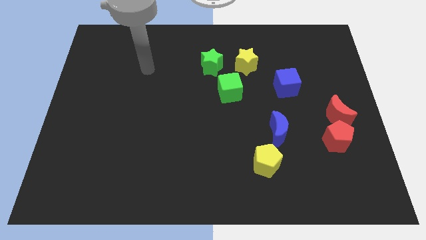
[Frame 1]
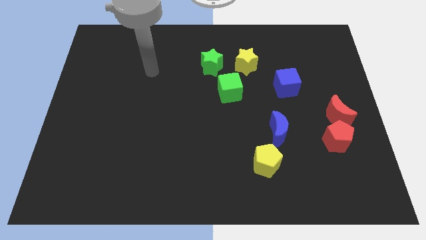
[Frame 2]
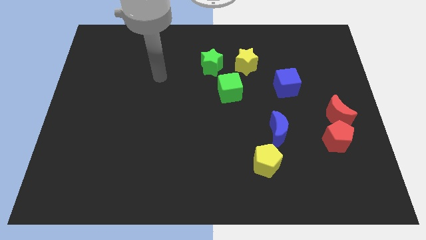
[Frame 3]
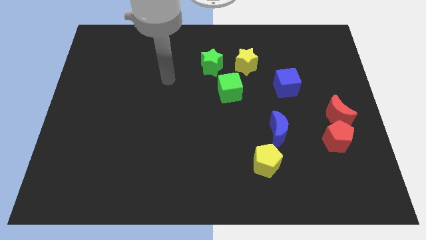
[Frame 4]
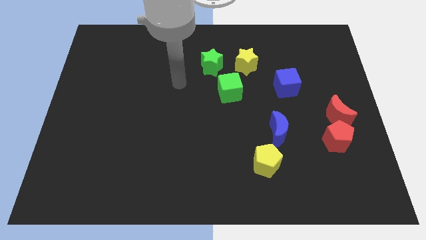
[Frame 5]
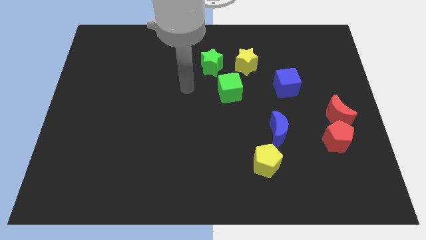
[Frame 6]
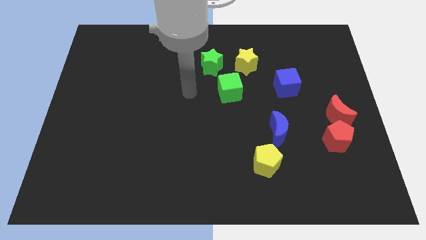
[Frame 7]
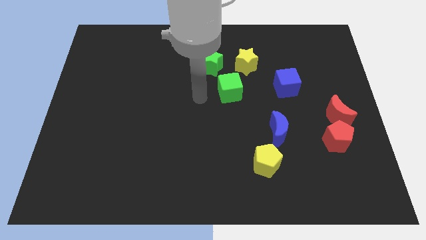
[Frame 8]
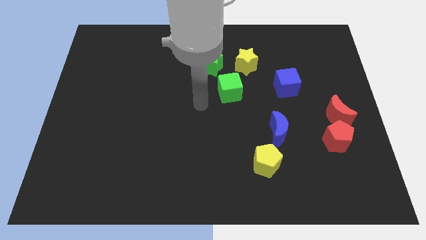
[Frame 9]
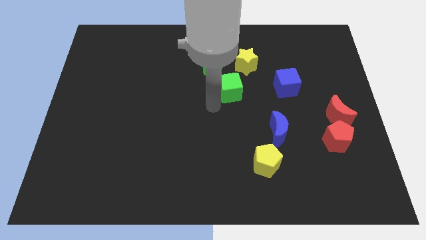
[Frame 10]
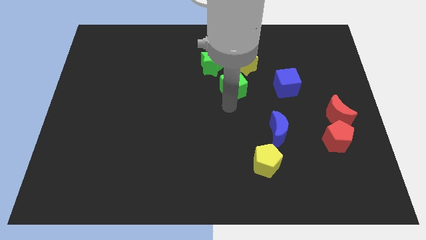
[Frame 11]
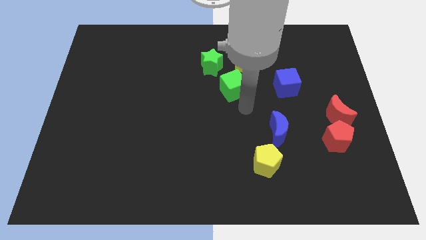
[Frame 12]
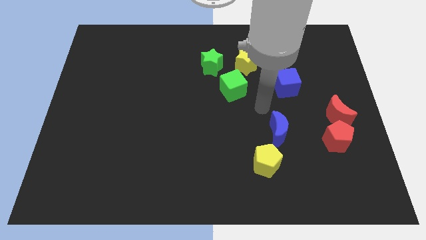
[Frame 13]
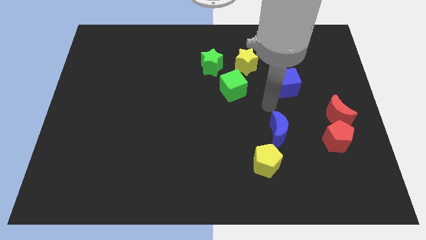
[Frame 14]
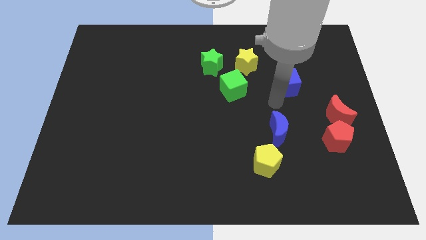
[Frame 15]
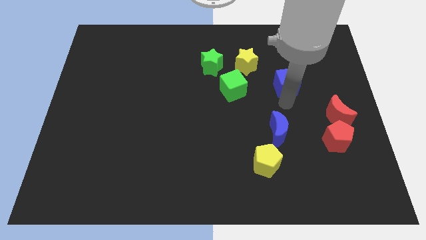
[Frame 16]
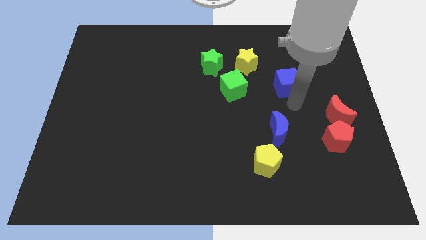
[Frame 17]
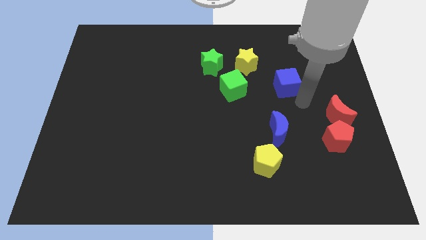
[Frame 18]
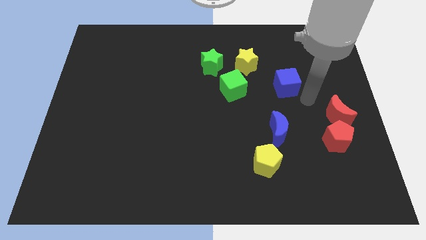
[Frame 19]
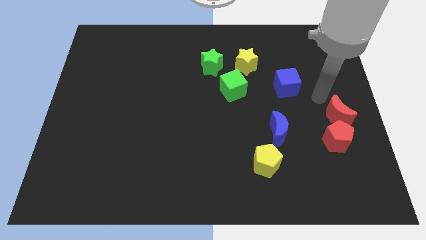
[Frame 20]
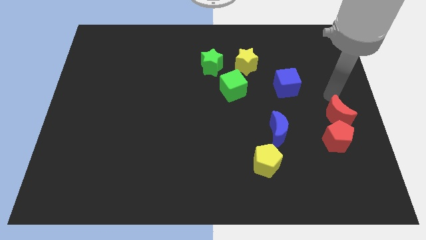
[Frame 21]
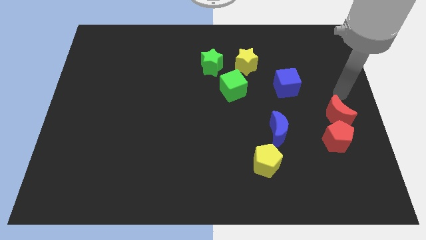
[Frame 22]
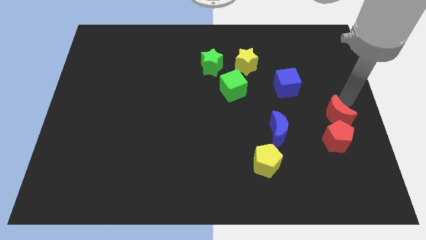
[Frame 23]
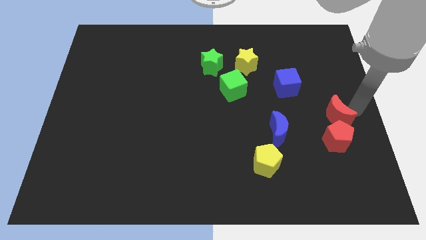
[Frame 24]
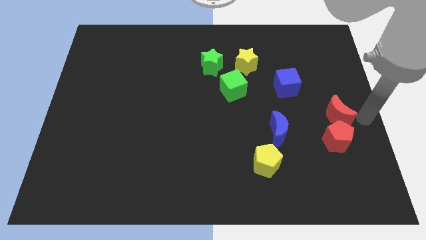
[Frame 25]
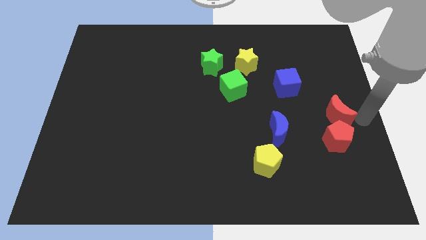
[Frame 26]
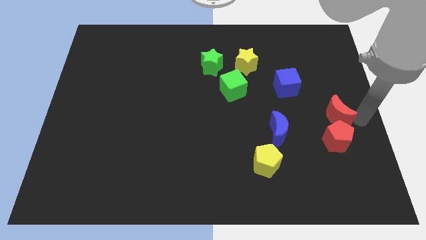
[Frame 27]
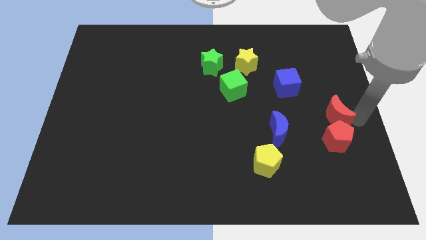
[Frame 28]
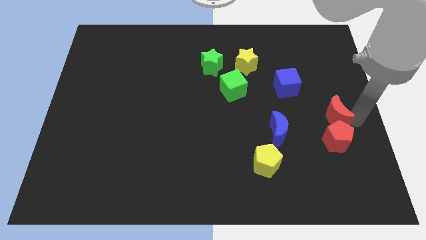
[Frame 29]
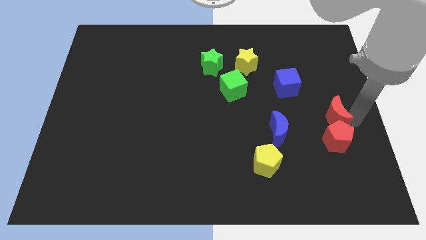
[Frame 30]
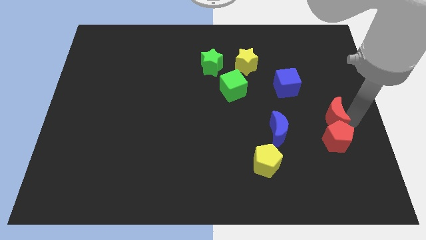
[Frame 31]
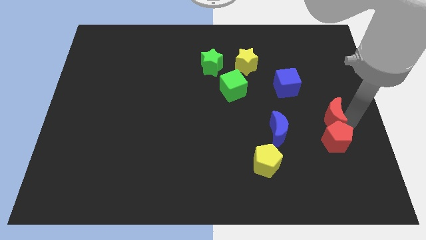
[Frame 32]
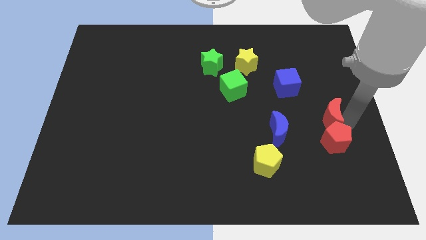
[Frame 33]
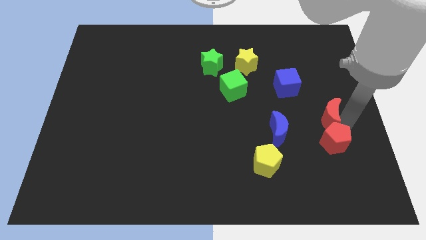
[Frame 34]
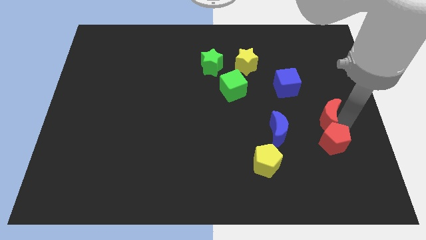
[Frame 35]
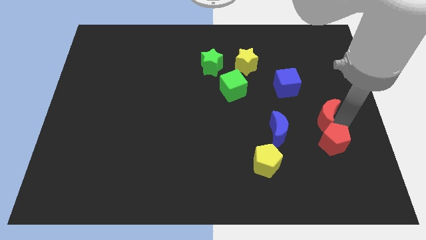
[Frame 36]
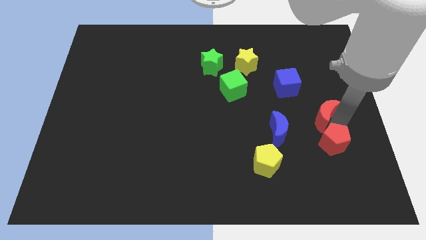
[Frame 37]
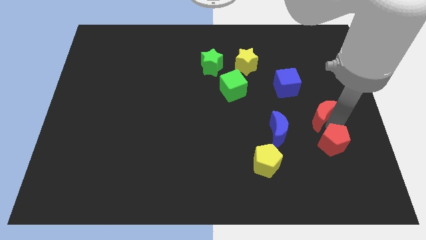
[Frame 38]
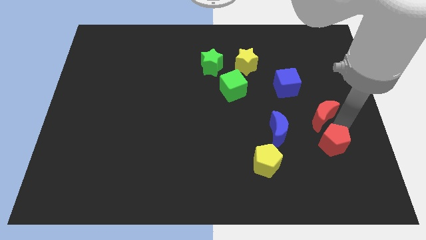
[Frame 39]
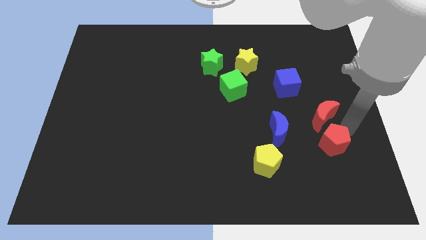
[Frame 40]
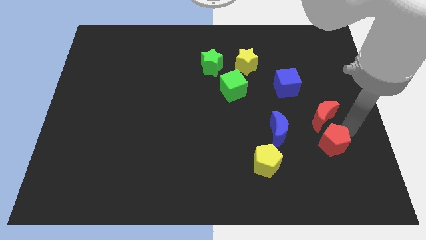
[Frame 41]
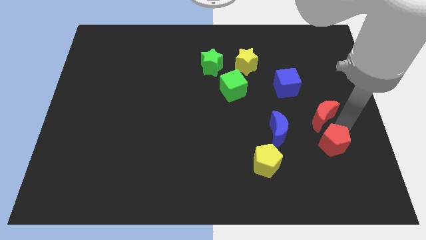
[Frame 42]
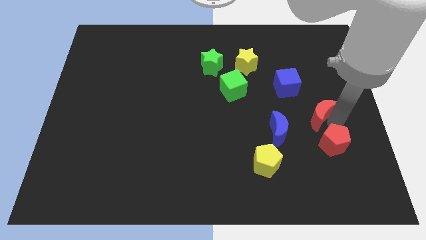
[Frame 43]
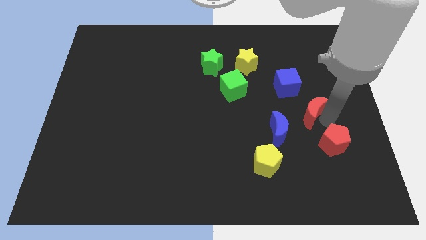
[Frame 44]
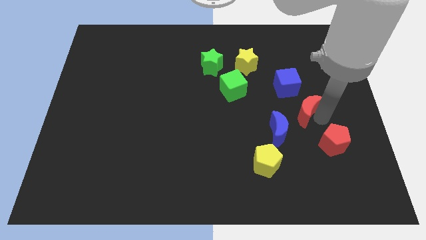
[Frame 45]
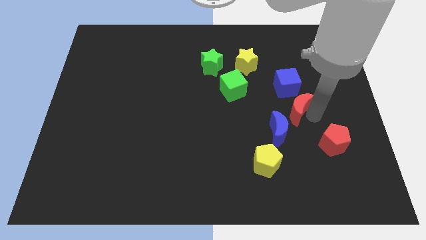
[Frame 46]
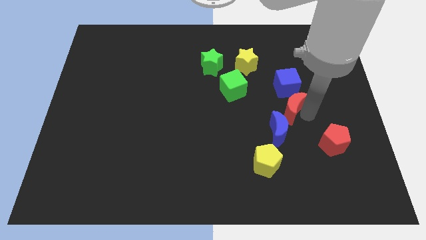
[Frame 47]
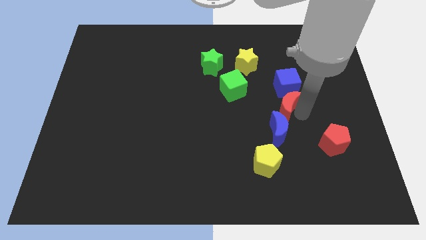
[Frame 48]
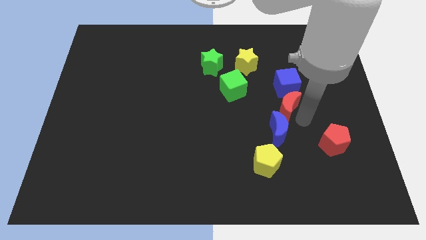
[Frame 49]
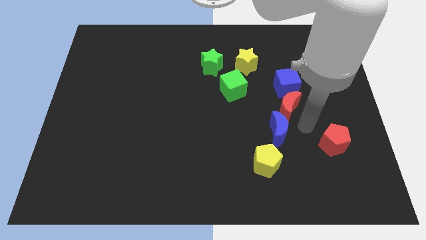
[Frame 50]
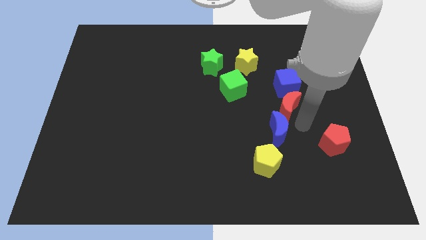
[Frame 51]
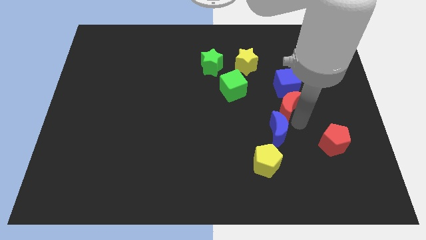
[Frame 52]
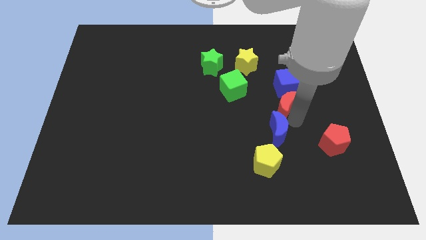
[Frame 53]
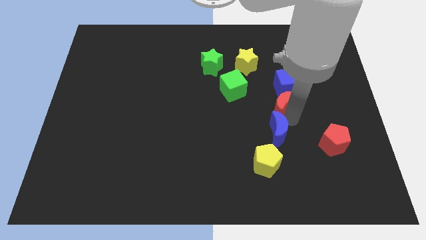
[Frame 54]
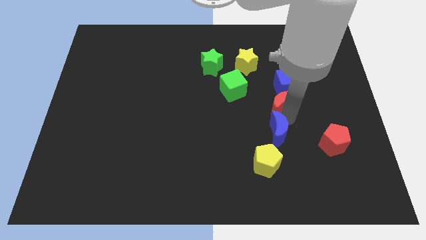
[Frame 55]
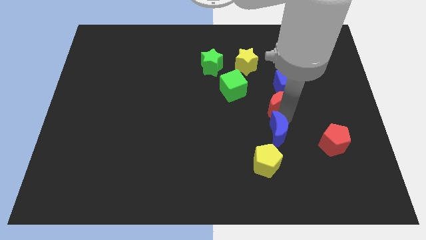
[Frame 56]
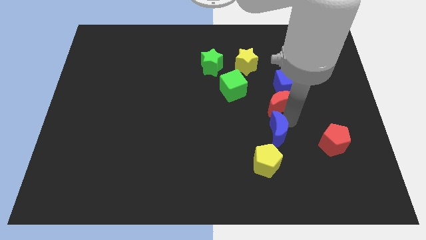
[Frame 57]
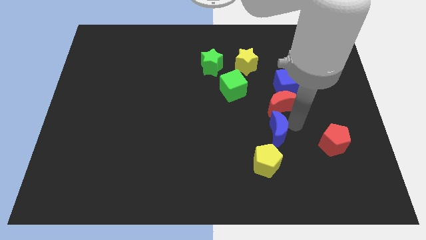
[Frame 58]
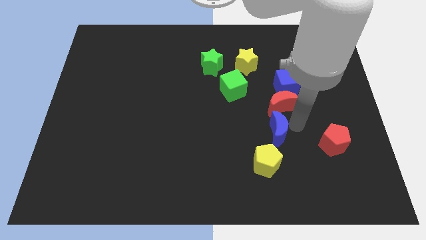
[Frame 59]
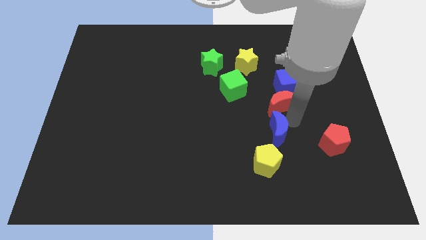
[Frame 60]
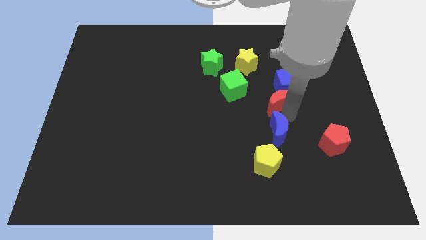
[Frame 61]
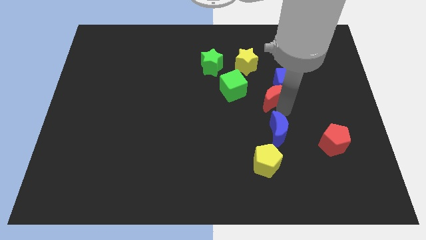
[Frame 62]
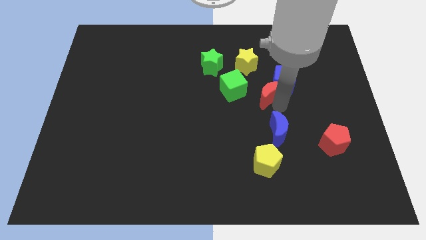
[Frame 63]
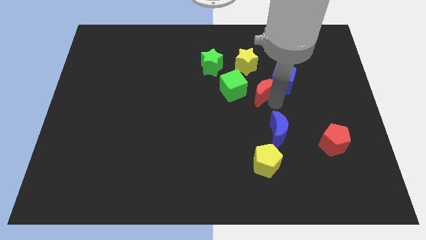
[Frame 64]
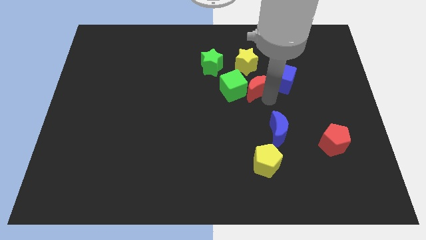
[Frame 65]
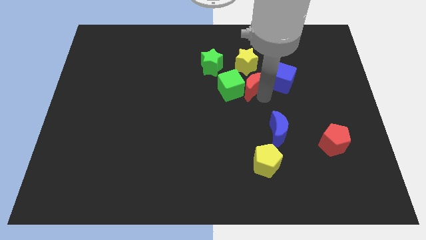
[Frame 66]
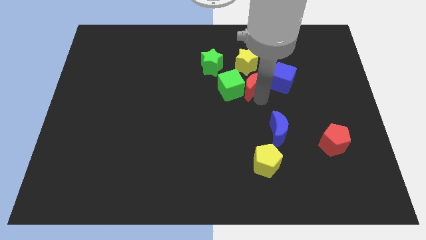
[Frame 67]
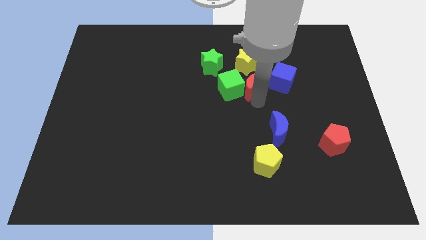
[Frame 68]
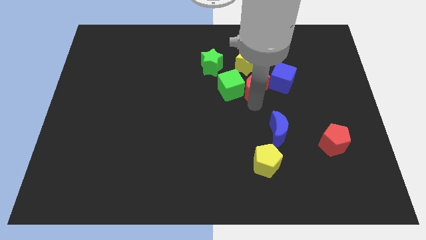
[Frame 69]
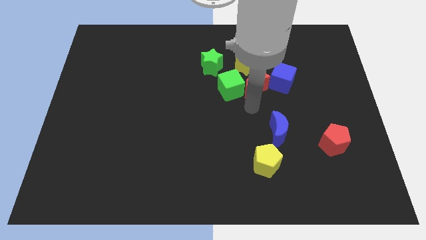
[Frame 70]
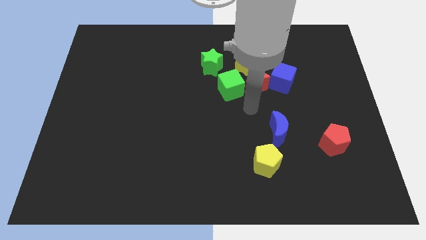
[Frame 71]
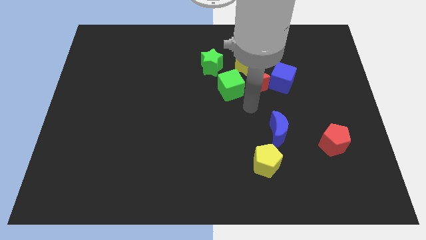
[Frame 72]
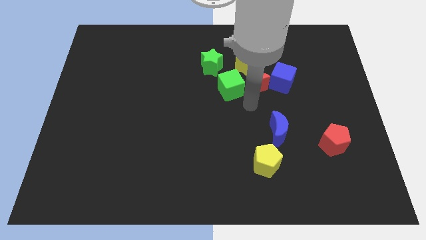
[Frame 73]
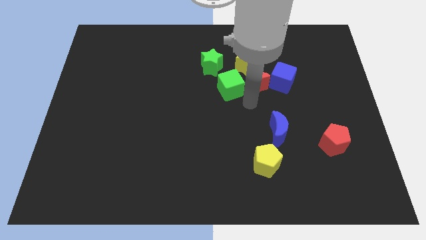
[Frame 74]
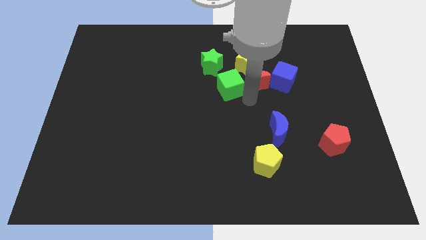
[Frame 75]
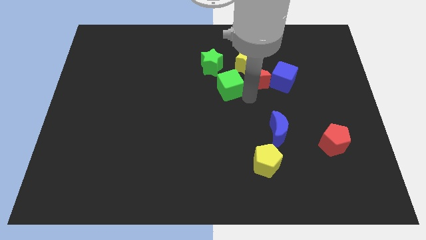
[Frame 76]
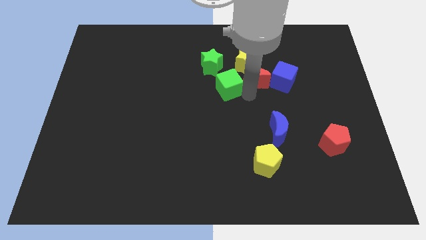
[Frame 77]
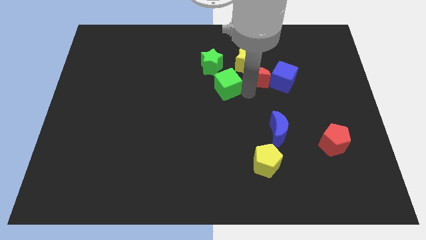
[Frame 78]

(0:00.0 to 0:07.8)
push the red moon close to the yellow star
